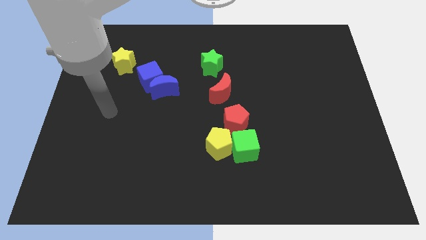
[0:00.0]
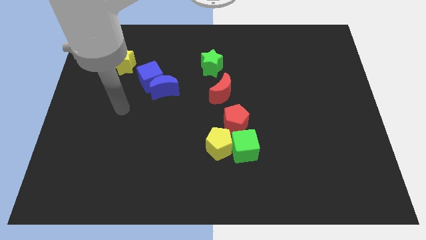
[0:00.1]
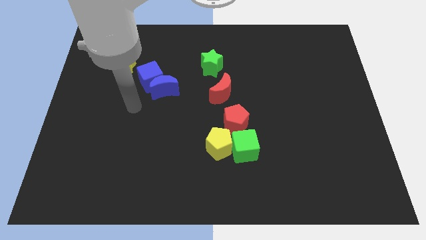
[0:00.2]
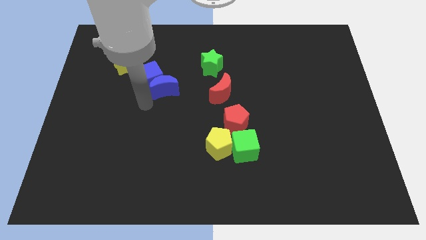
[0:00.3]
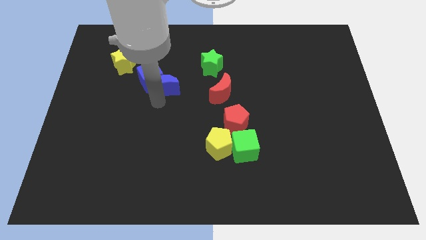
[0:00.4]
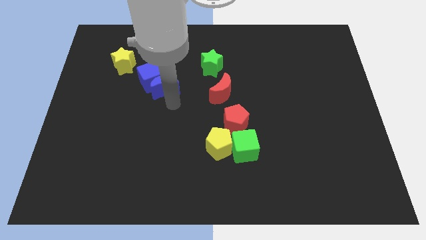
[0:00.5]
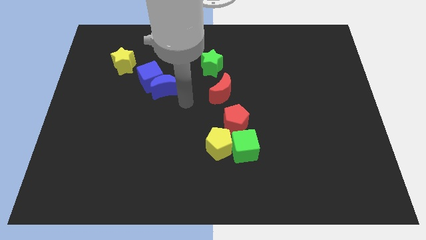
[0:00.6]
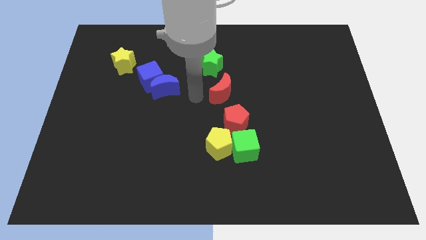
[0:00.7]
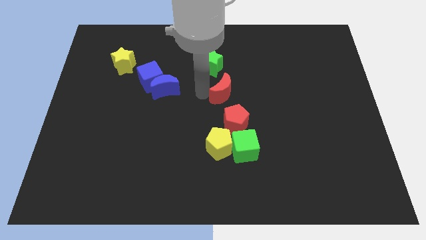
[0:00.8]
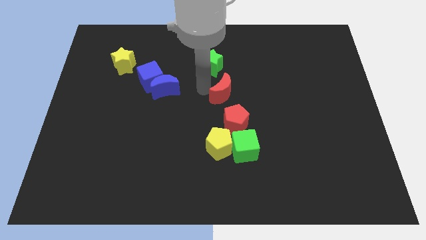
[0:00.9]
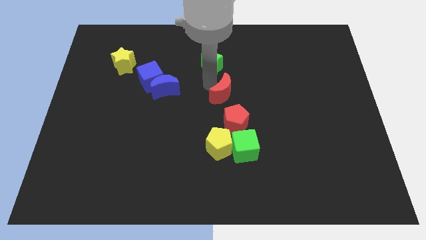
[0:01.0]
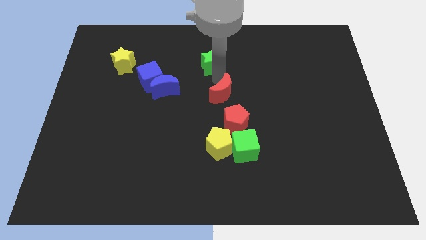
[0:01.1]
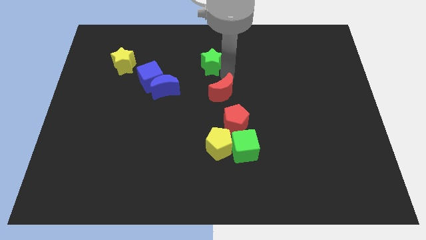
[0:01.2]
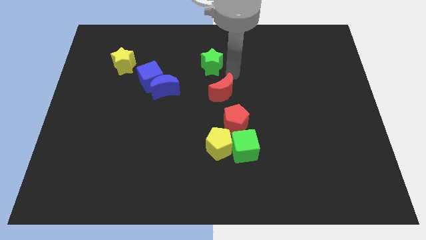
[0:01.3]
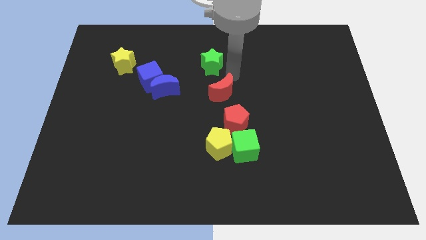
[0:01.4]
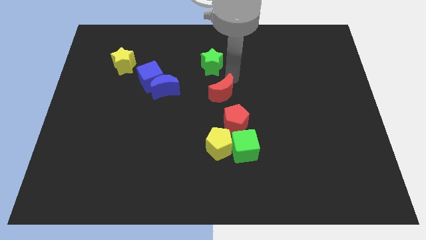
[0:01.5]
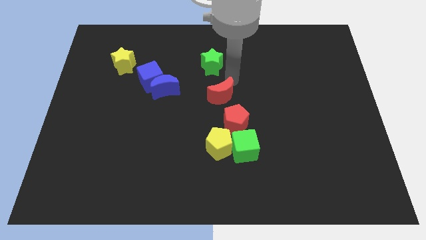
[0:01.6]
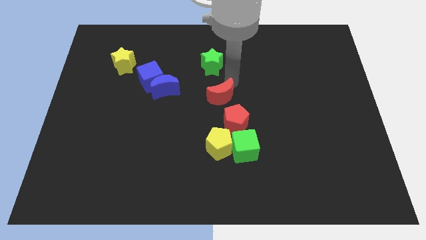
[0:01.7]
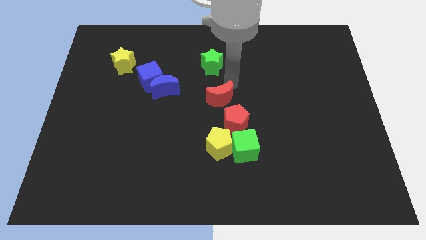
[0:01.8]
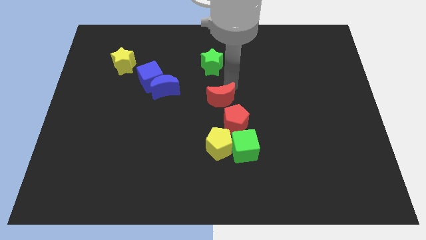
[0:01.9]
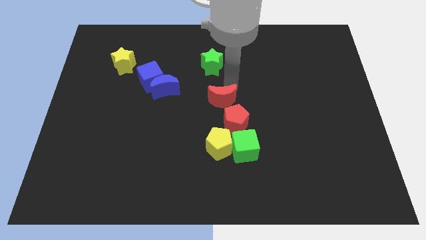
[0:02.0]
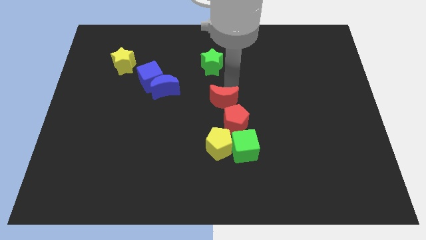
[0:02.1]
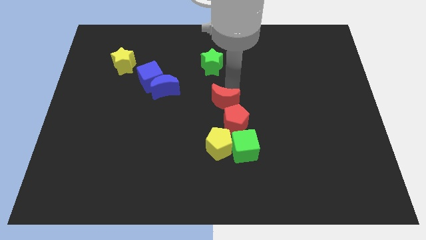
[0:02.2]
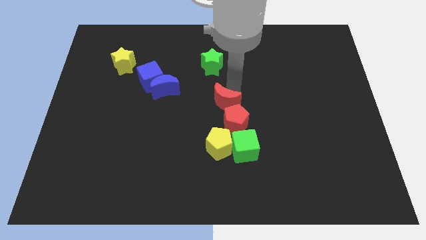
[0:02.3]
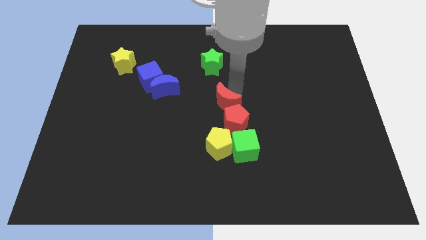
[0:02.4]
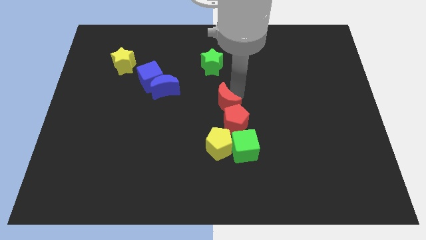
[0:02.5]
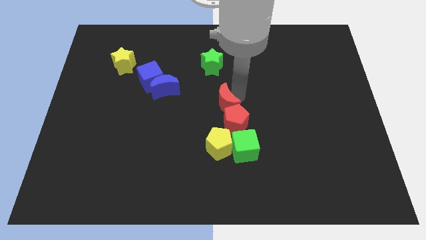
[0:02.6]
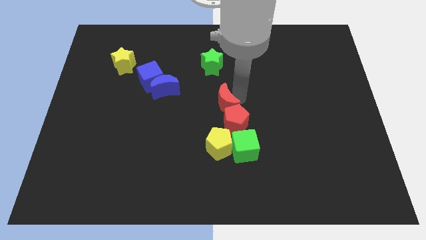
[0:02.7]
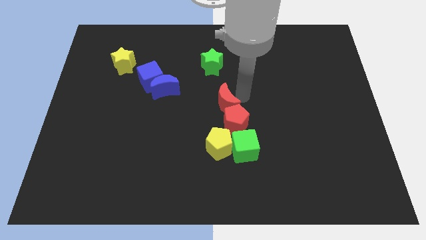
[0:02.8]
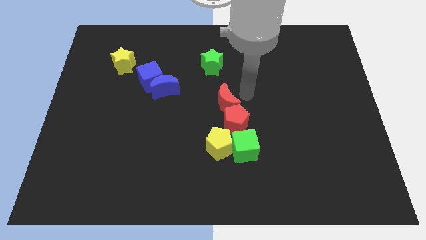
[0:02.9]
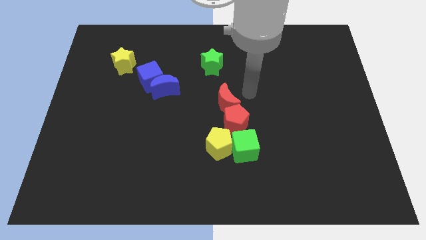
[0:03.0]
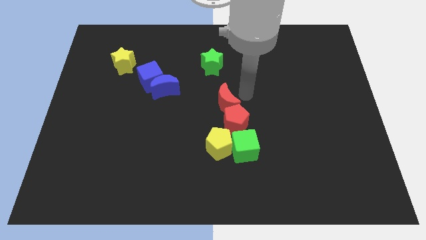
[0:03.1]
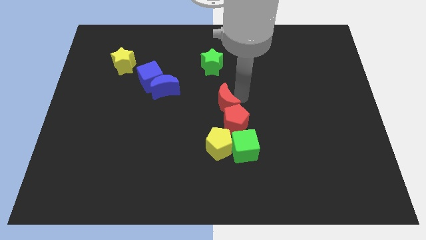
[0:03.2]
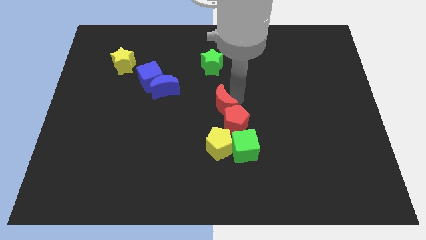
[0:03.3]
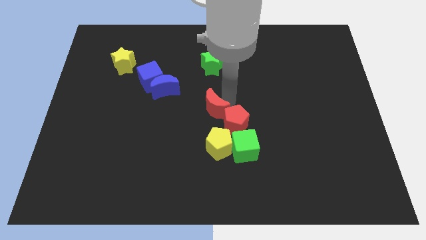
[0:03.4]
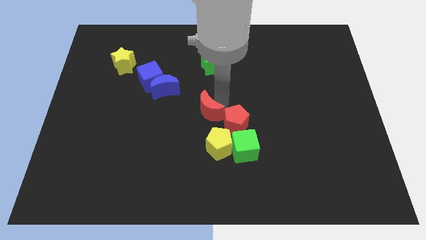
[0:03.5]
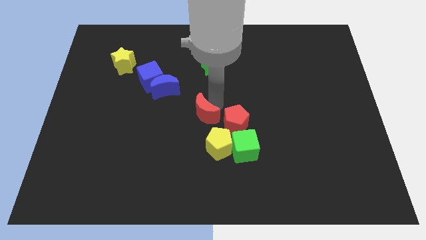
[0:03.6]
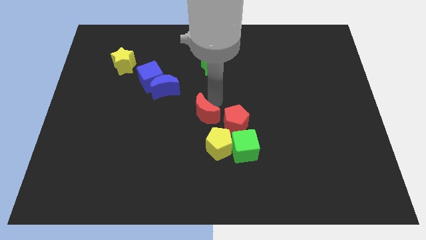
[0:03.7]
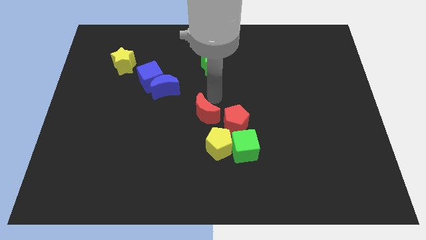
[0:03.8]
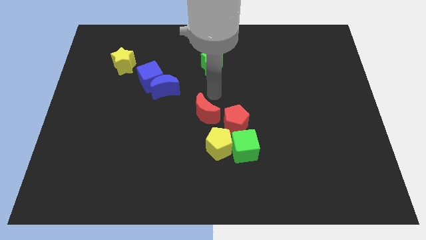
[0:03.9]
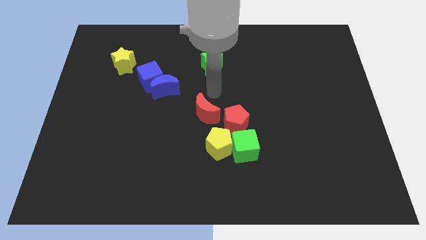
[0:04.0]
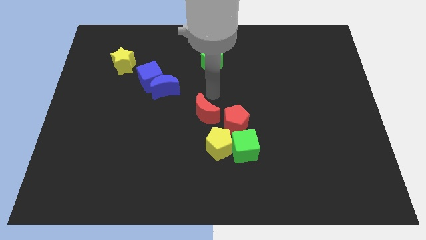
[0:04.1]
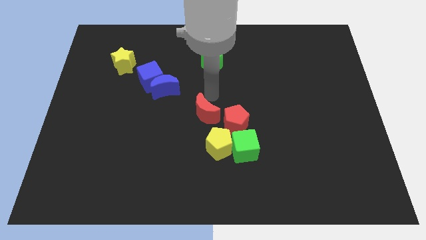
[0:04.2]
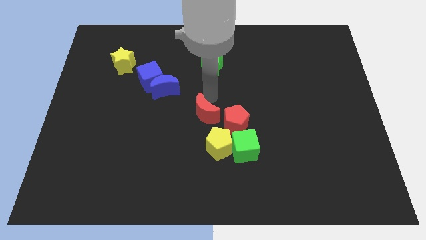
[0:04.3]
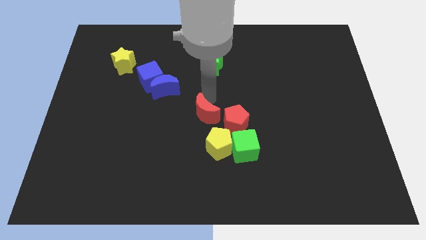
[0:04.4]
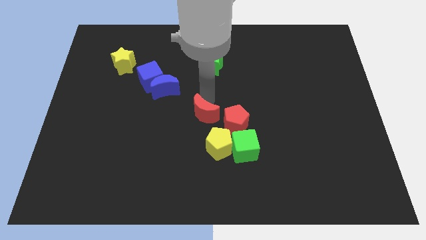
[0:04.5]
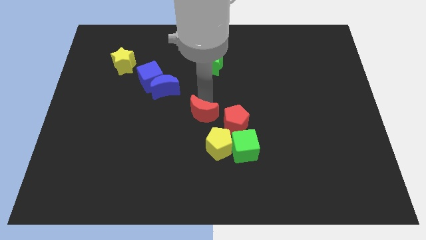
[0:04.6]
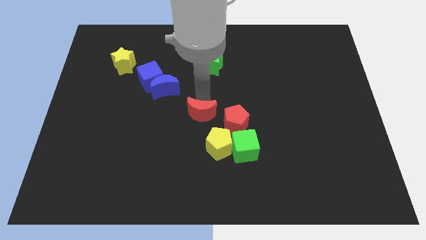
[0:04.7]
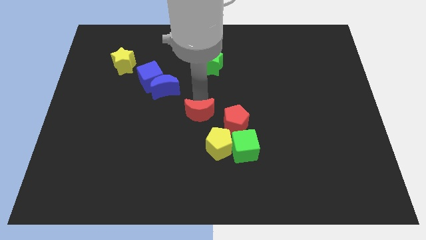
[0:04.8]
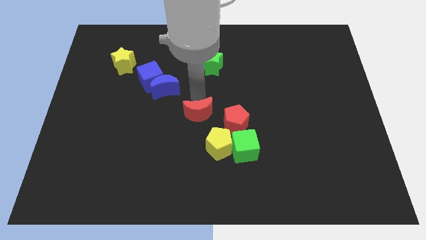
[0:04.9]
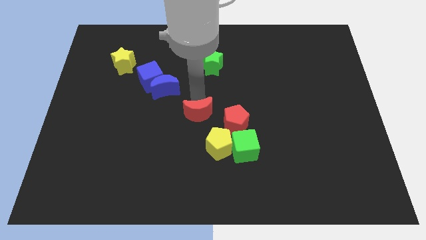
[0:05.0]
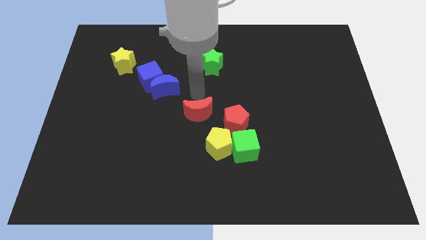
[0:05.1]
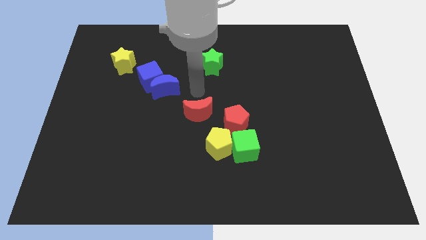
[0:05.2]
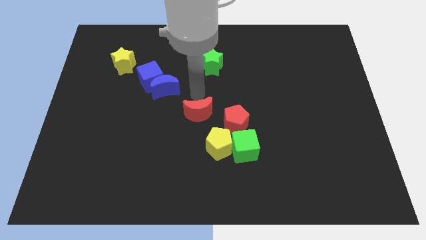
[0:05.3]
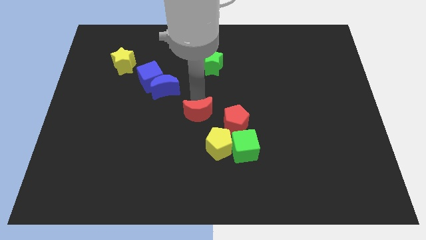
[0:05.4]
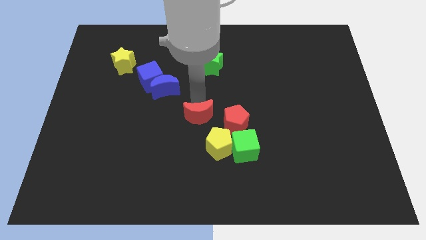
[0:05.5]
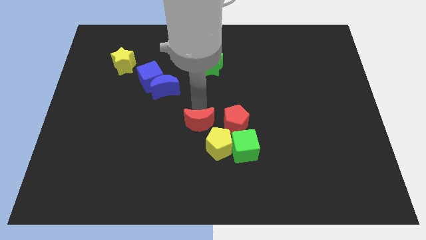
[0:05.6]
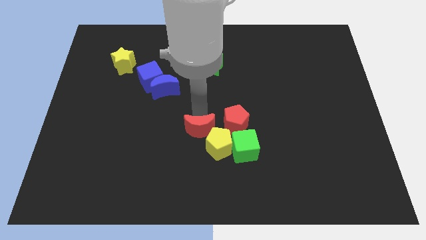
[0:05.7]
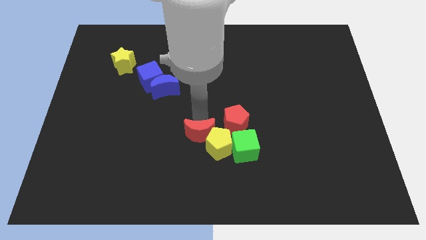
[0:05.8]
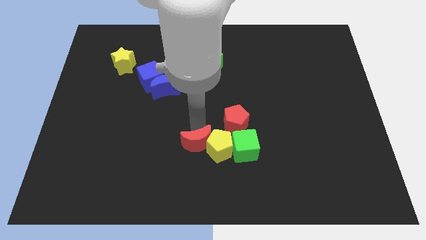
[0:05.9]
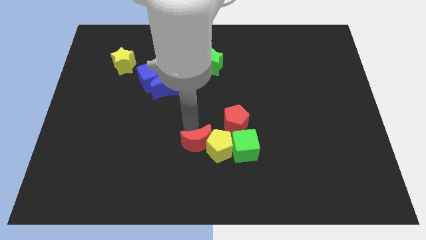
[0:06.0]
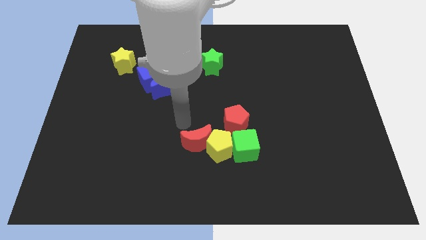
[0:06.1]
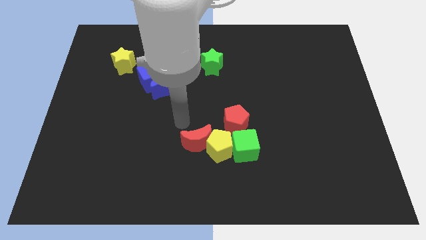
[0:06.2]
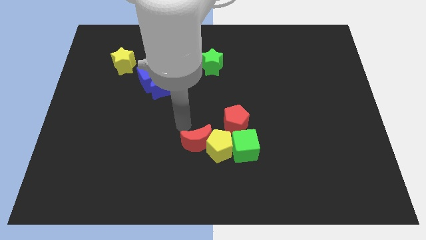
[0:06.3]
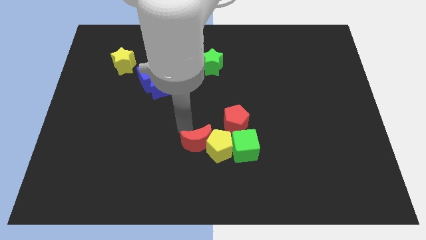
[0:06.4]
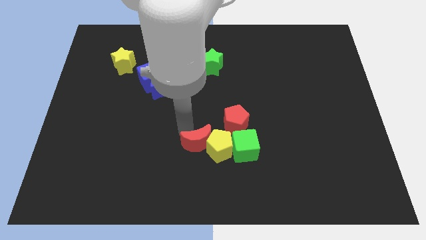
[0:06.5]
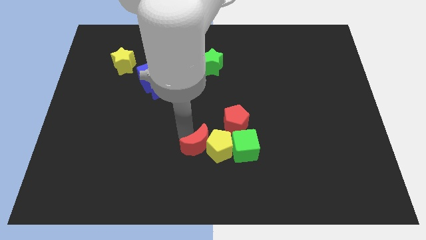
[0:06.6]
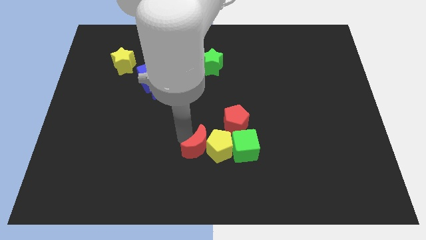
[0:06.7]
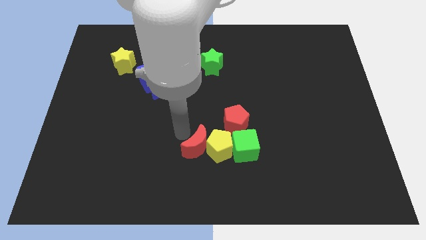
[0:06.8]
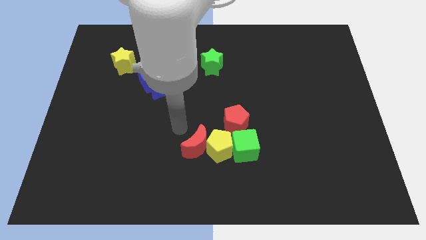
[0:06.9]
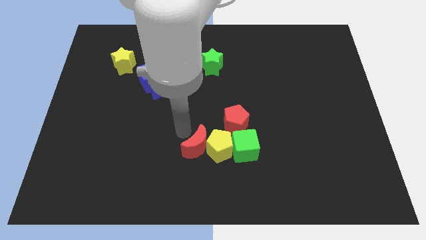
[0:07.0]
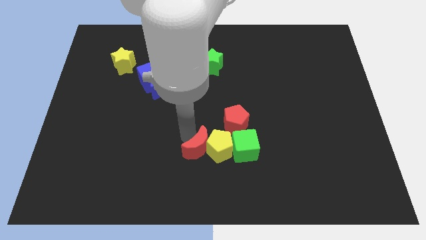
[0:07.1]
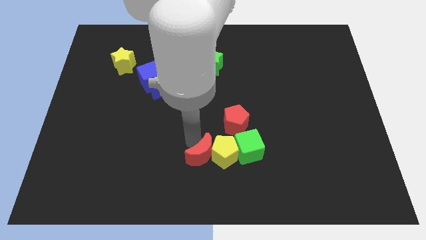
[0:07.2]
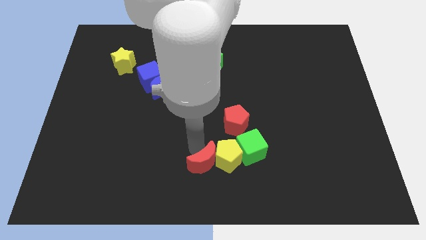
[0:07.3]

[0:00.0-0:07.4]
move the red moon diagonally down and to the left of the green cube
